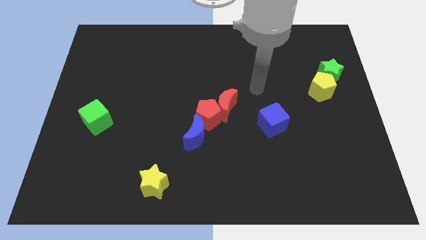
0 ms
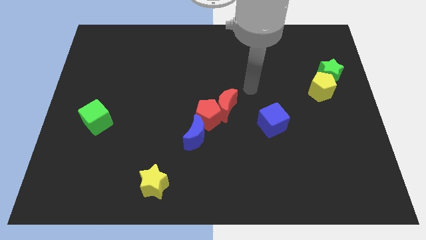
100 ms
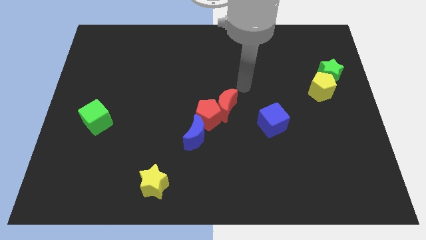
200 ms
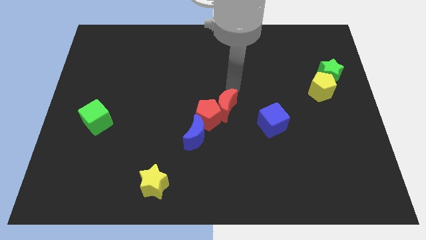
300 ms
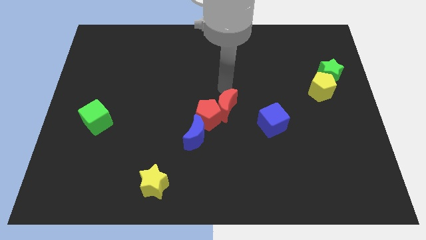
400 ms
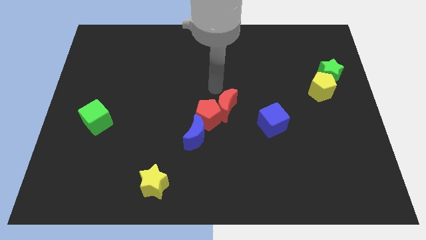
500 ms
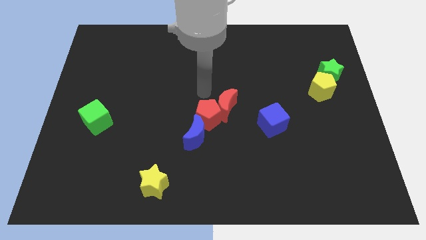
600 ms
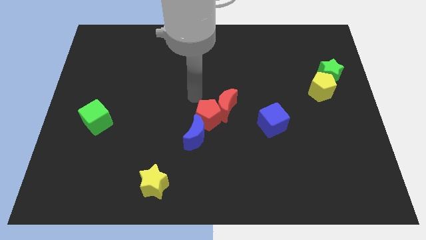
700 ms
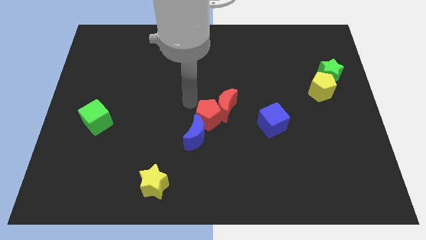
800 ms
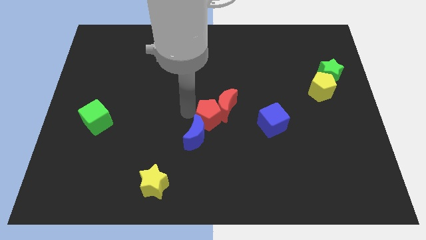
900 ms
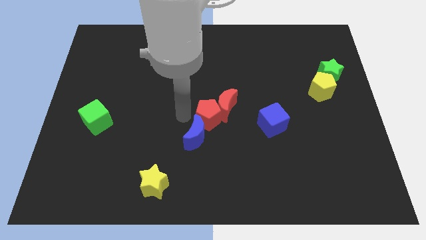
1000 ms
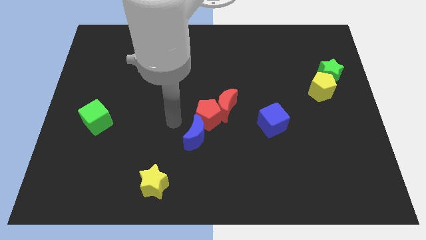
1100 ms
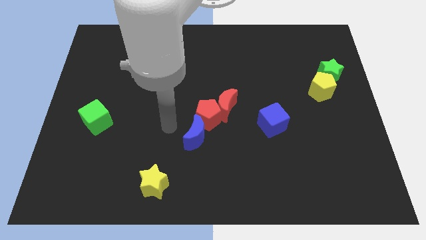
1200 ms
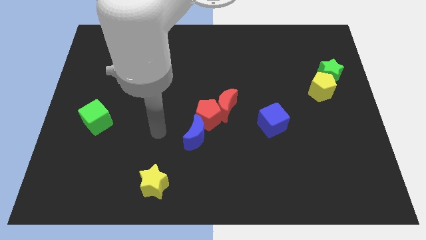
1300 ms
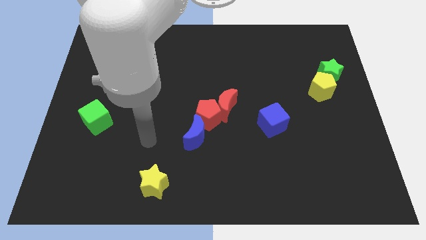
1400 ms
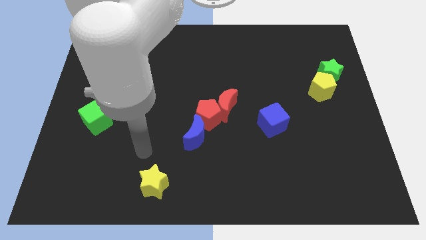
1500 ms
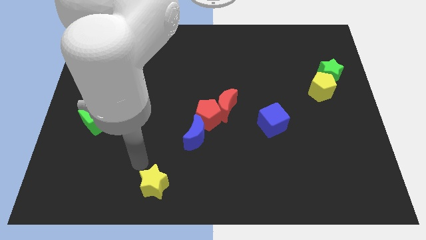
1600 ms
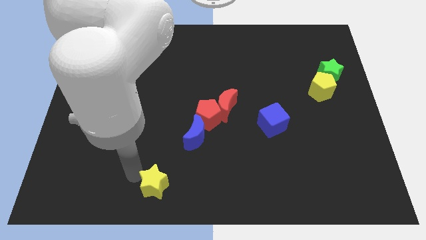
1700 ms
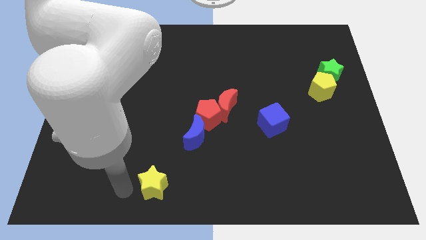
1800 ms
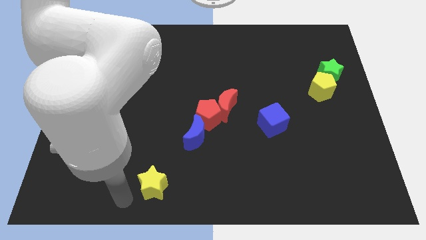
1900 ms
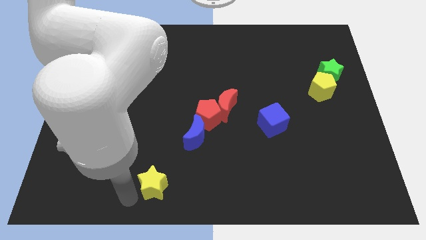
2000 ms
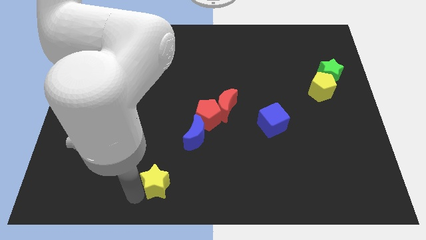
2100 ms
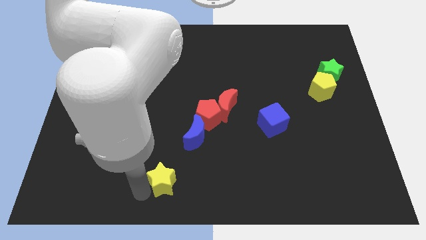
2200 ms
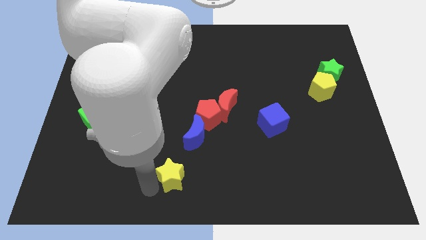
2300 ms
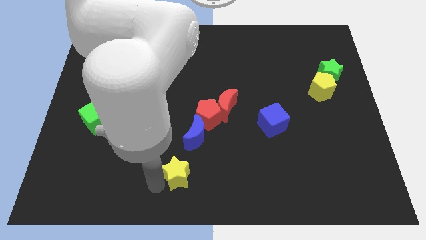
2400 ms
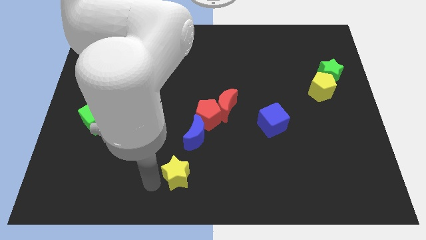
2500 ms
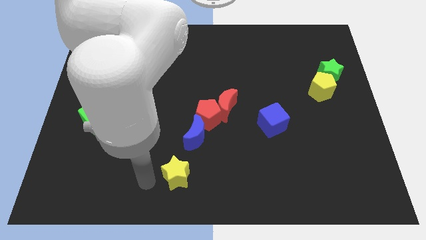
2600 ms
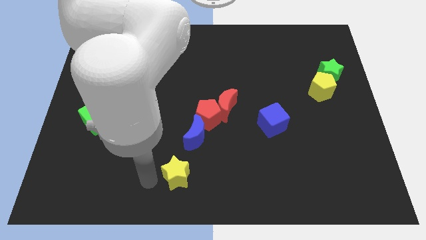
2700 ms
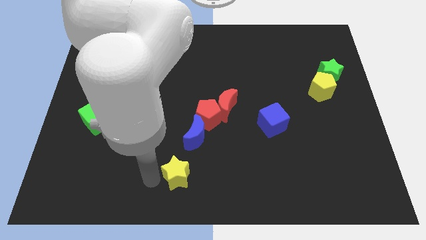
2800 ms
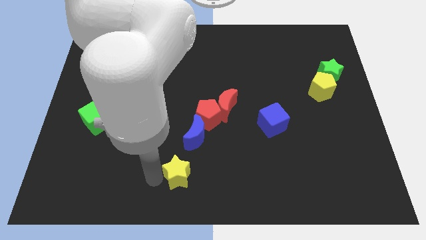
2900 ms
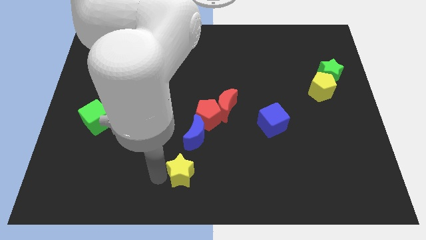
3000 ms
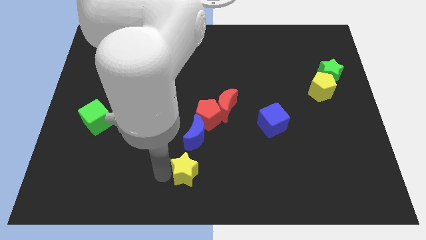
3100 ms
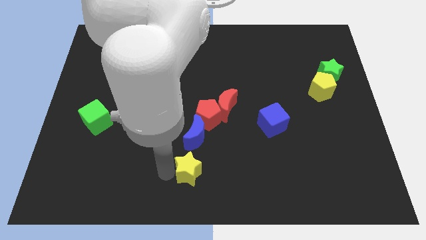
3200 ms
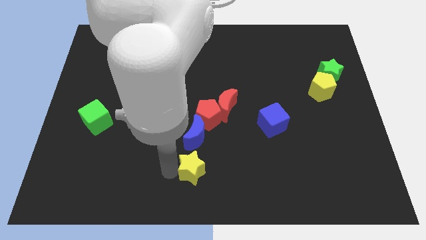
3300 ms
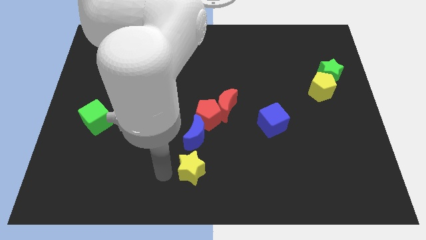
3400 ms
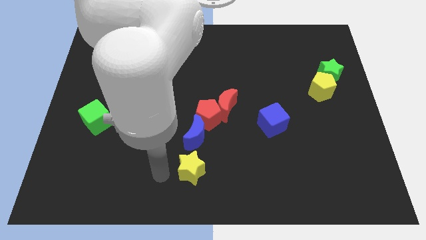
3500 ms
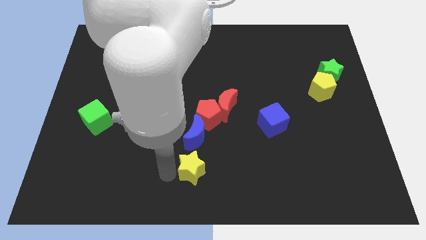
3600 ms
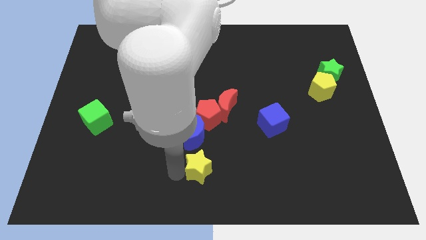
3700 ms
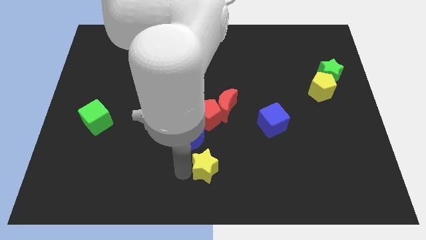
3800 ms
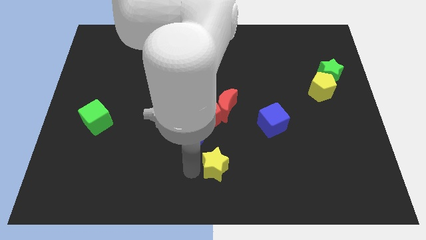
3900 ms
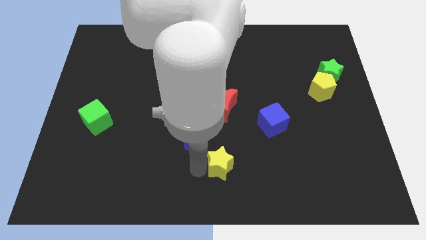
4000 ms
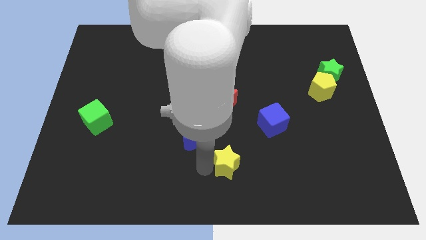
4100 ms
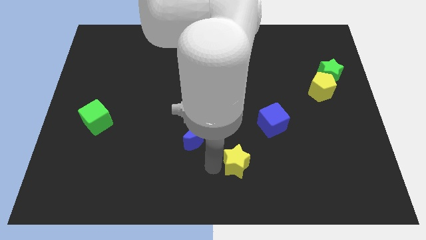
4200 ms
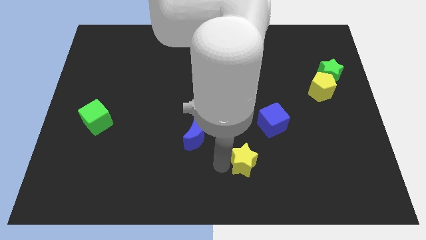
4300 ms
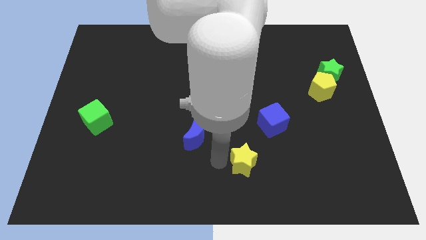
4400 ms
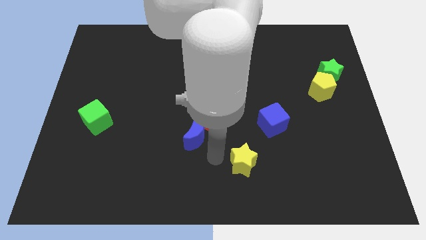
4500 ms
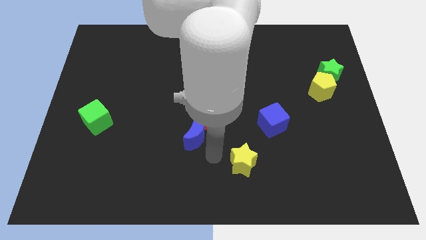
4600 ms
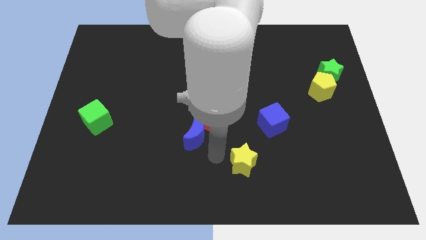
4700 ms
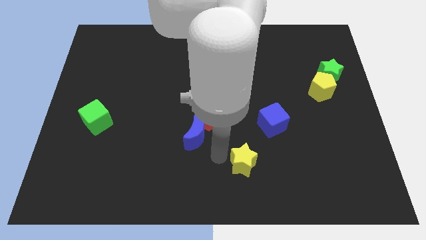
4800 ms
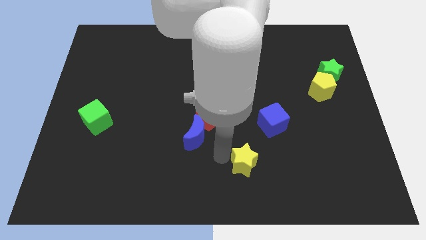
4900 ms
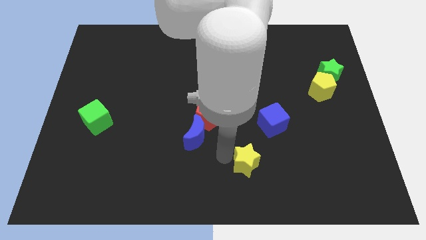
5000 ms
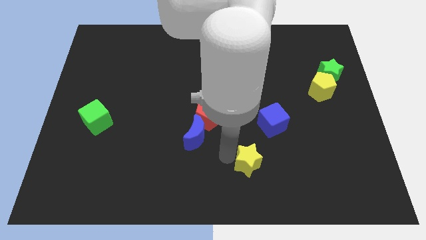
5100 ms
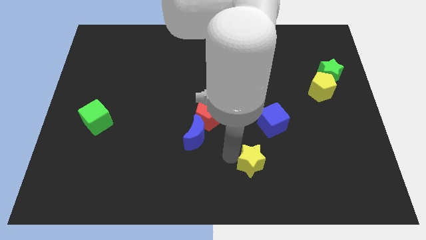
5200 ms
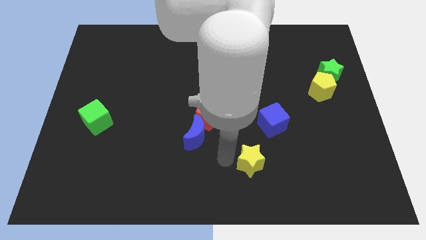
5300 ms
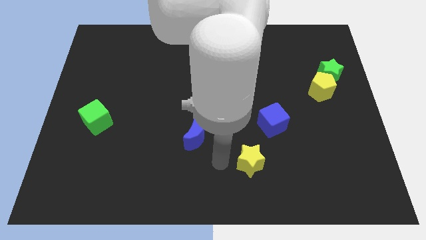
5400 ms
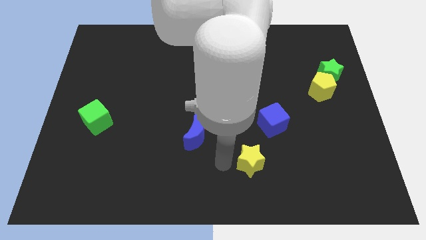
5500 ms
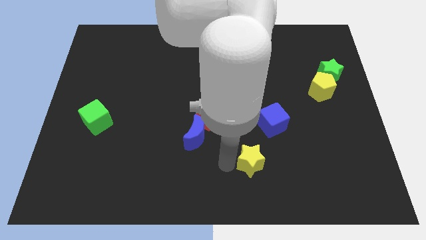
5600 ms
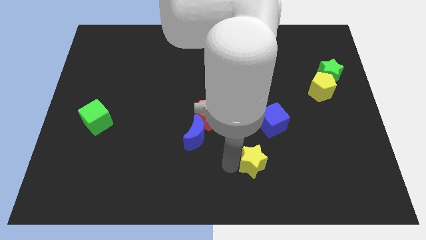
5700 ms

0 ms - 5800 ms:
slide the yellow star to the bottom of the blue cube

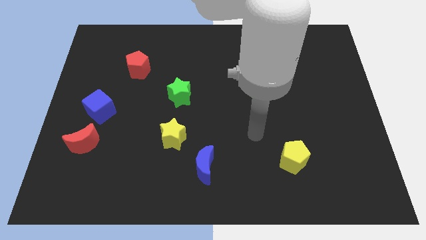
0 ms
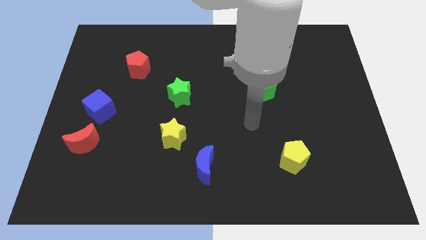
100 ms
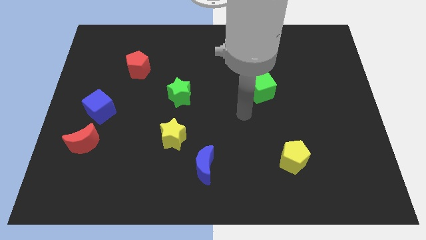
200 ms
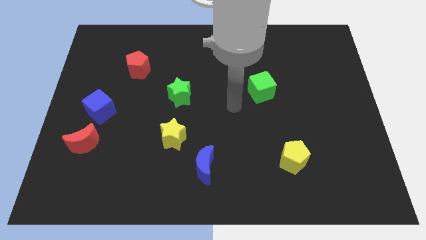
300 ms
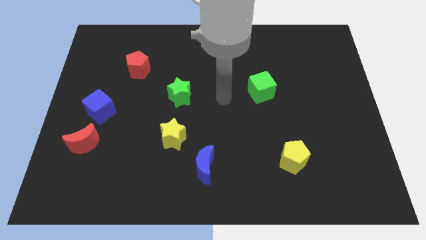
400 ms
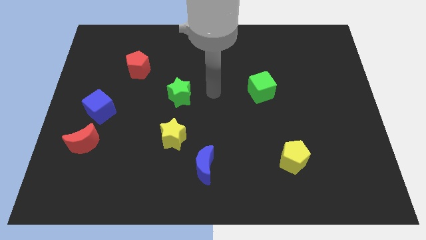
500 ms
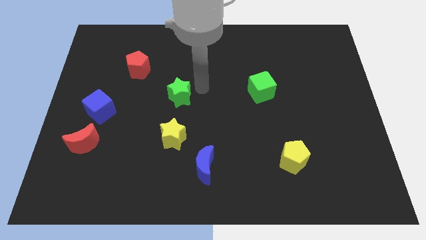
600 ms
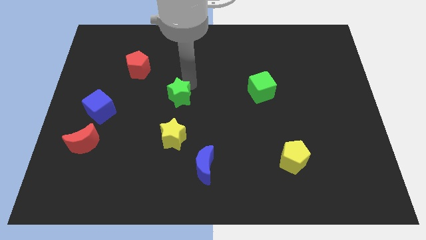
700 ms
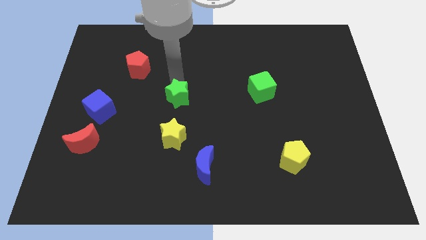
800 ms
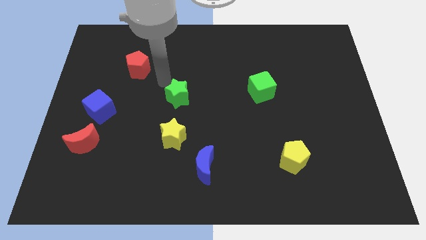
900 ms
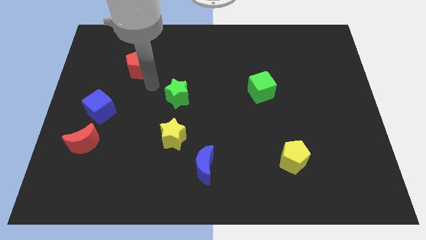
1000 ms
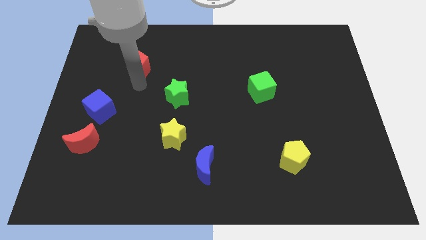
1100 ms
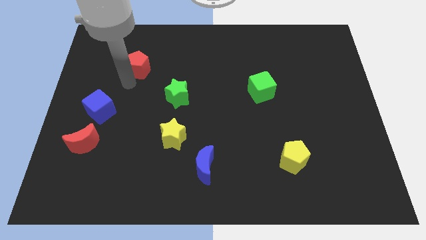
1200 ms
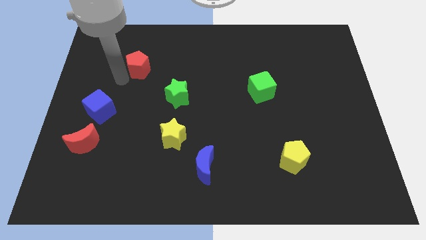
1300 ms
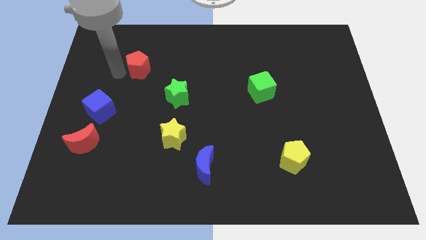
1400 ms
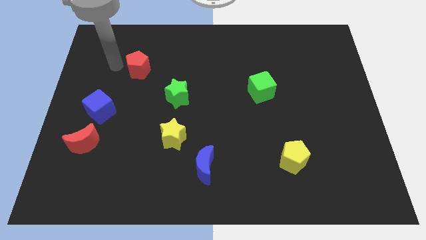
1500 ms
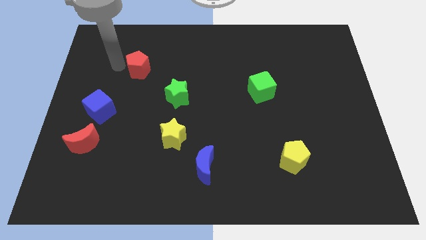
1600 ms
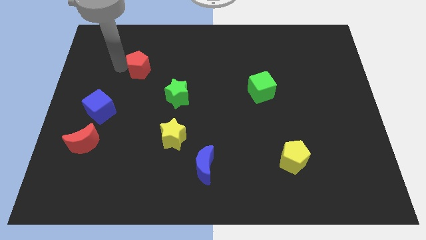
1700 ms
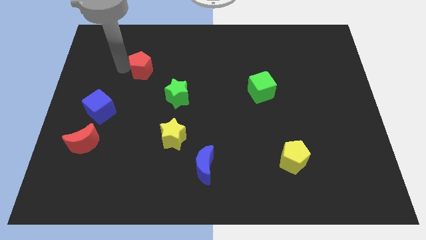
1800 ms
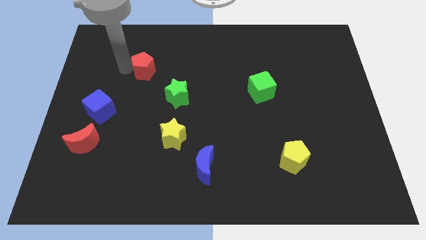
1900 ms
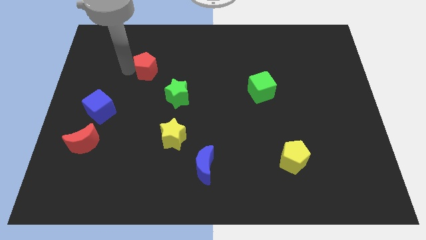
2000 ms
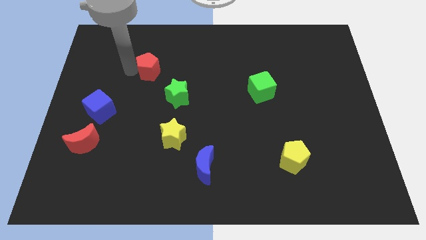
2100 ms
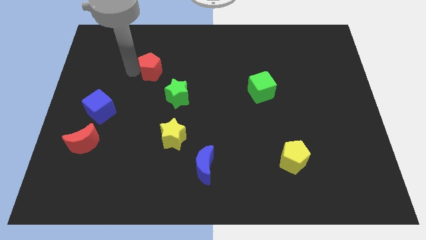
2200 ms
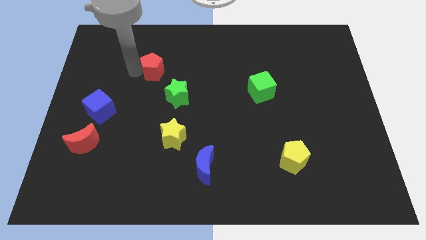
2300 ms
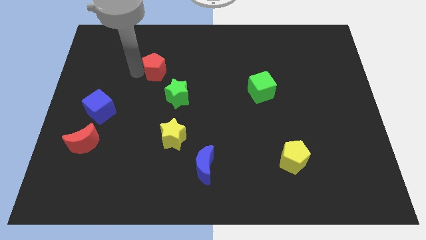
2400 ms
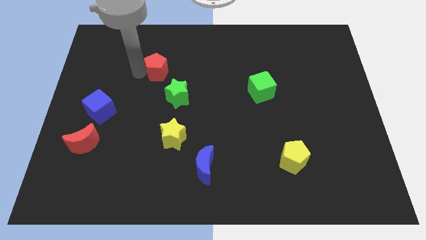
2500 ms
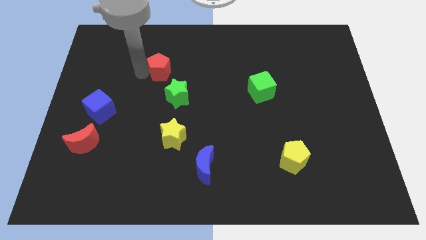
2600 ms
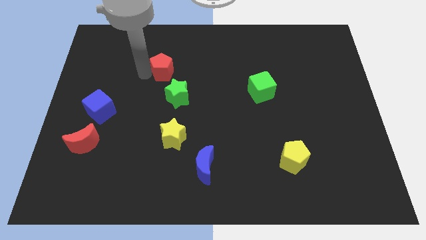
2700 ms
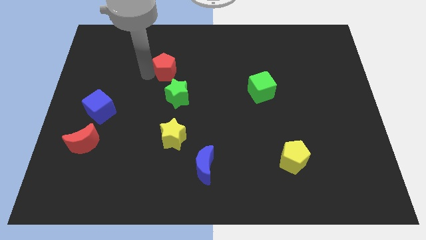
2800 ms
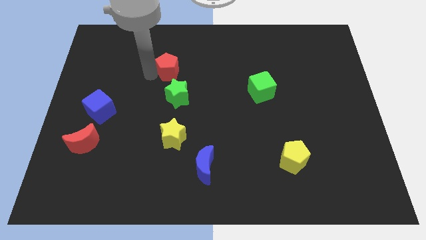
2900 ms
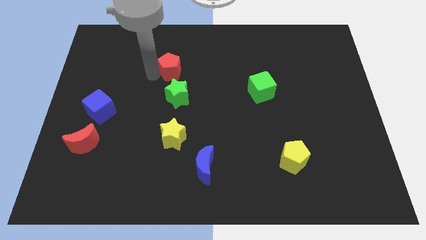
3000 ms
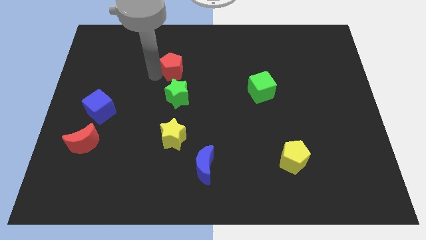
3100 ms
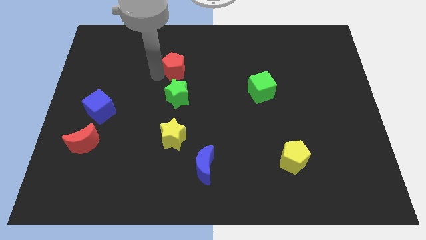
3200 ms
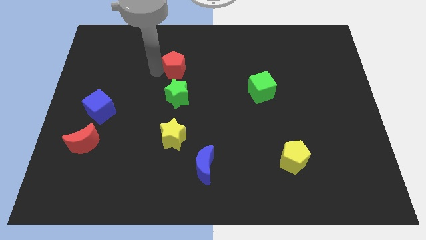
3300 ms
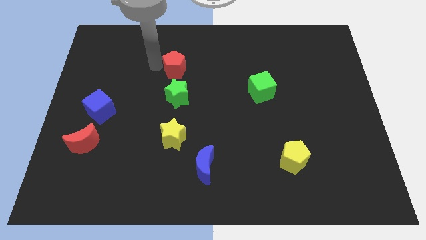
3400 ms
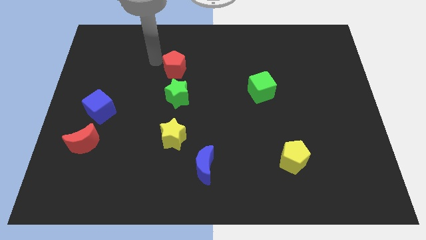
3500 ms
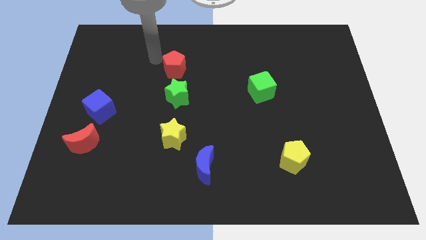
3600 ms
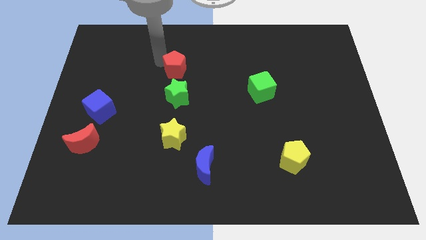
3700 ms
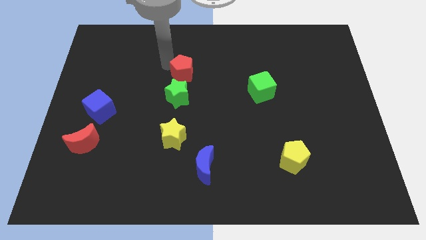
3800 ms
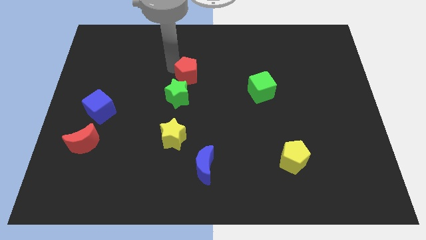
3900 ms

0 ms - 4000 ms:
push the red pentagon to the top right side of the green star
